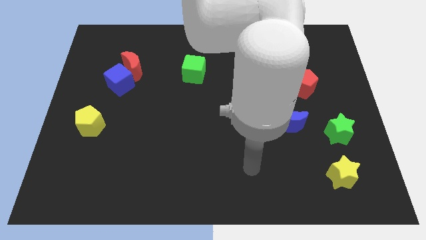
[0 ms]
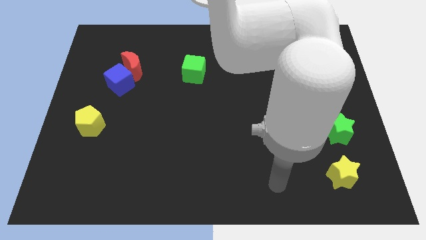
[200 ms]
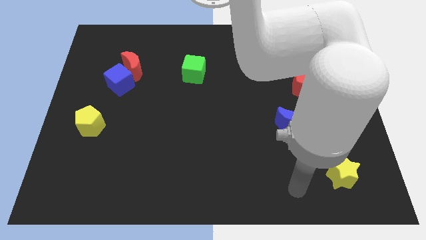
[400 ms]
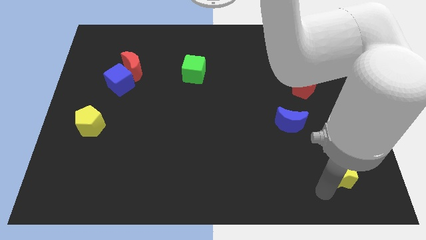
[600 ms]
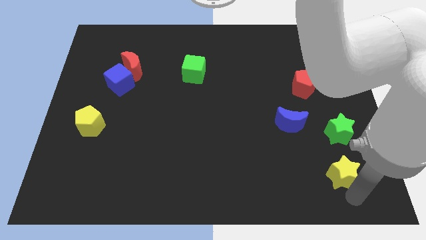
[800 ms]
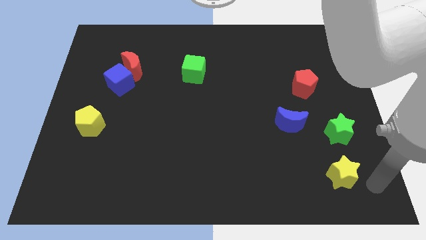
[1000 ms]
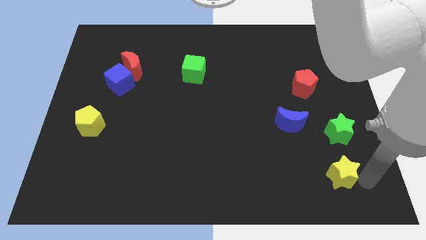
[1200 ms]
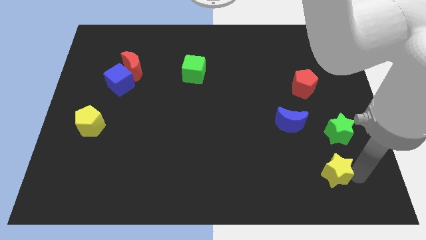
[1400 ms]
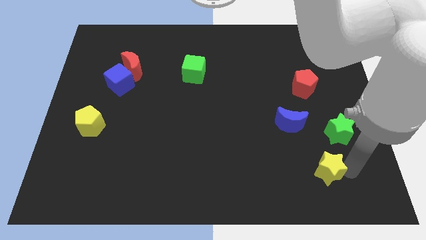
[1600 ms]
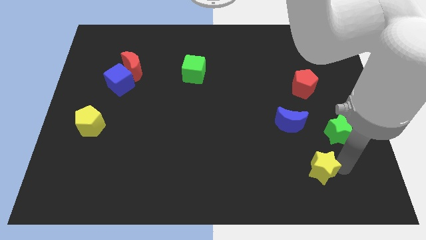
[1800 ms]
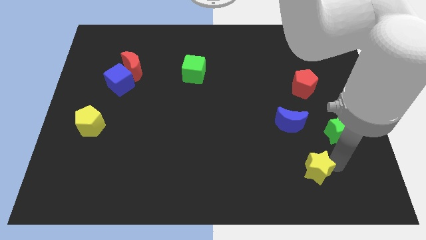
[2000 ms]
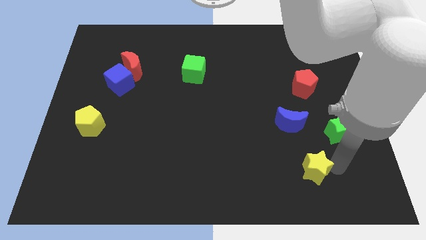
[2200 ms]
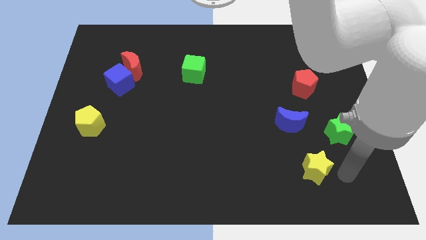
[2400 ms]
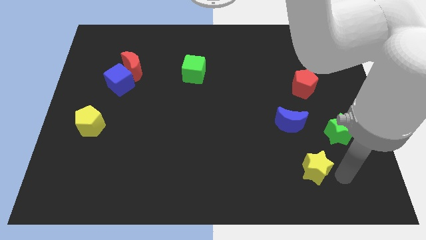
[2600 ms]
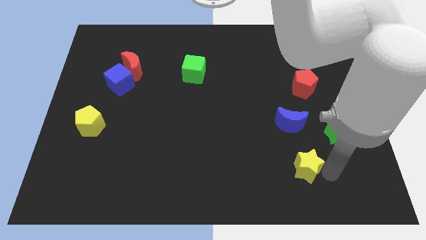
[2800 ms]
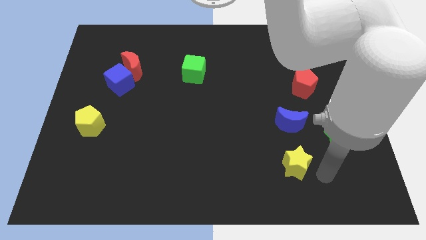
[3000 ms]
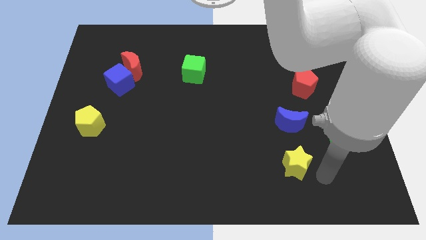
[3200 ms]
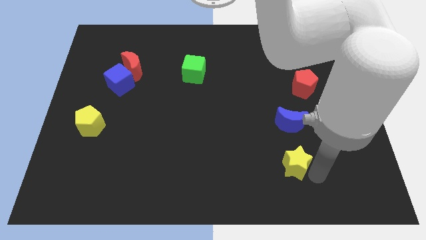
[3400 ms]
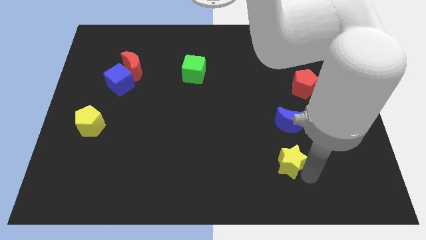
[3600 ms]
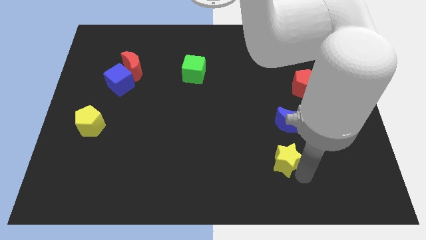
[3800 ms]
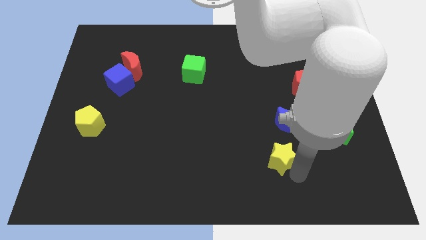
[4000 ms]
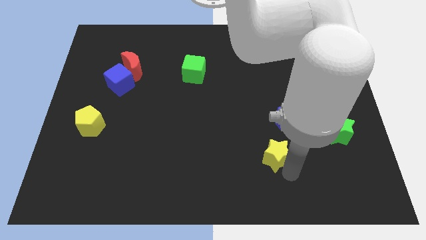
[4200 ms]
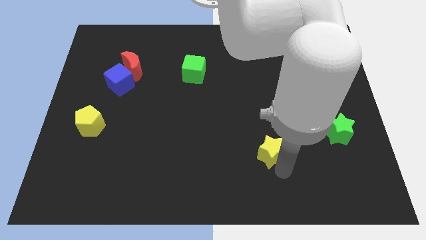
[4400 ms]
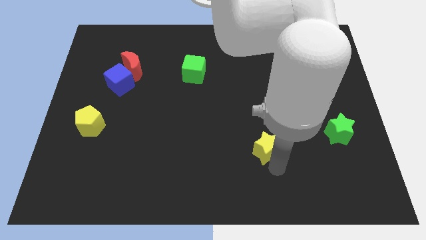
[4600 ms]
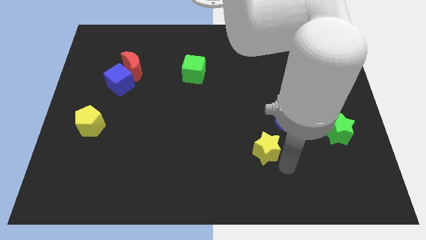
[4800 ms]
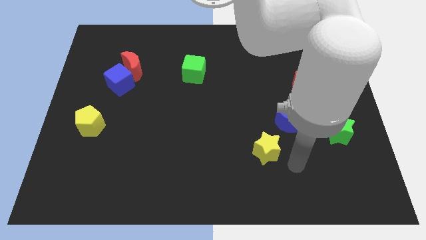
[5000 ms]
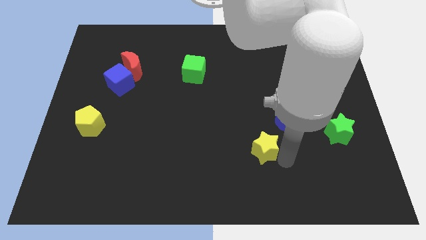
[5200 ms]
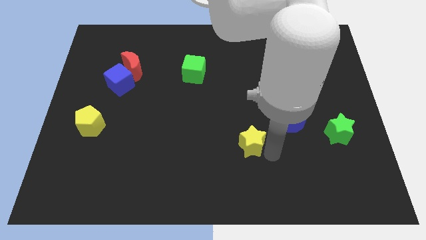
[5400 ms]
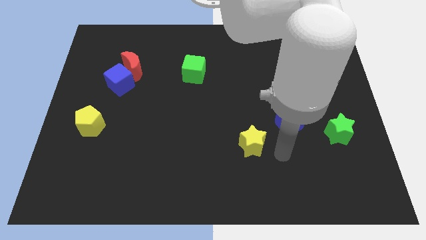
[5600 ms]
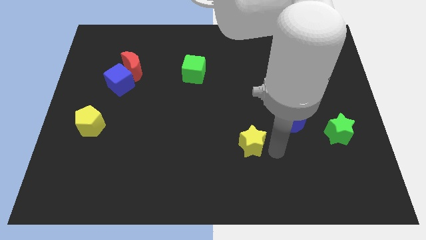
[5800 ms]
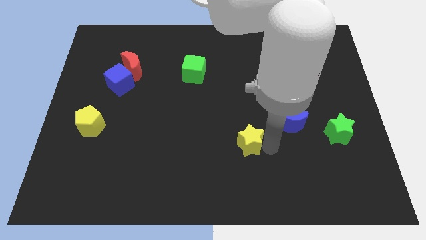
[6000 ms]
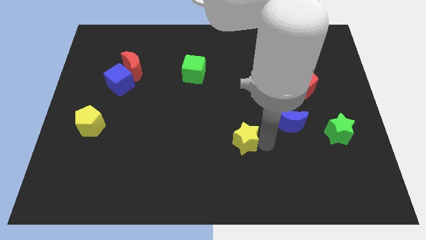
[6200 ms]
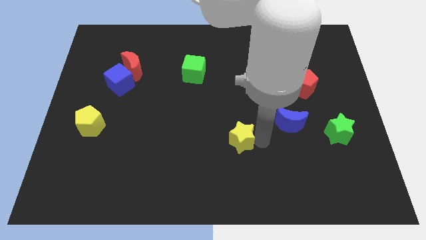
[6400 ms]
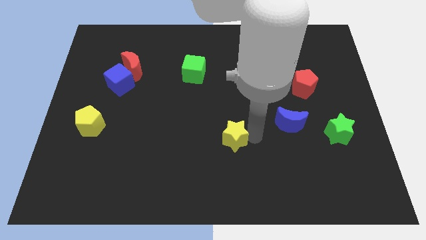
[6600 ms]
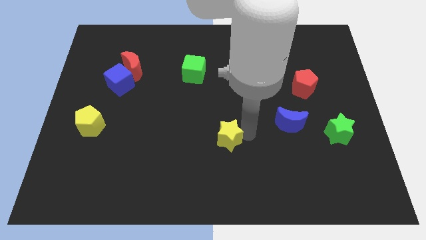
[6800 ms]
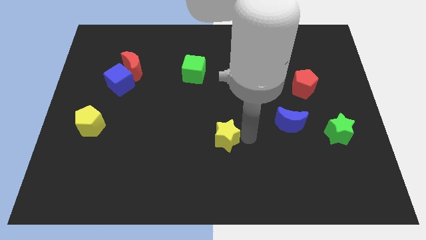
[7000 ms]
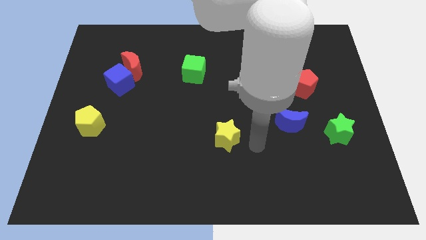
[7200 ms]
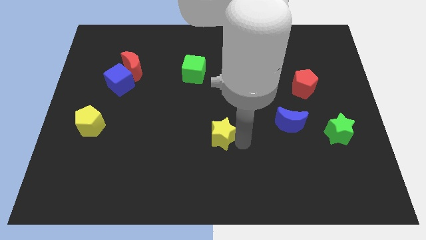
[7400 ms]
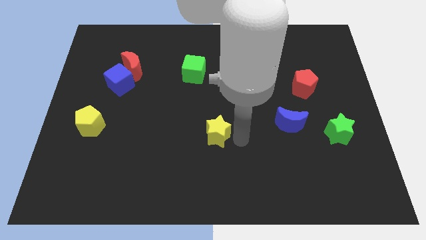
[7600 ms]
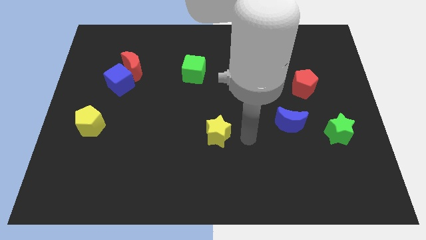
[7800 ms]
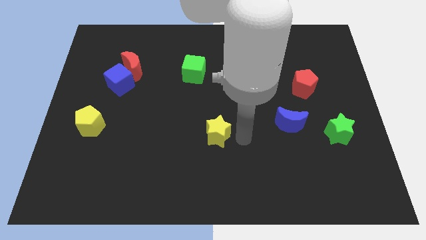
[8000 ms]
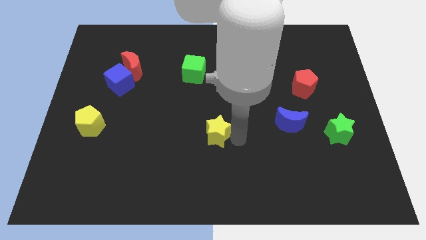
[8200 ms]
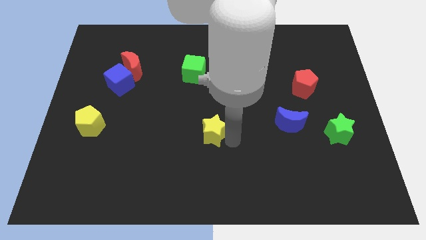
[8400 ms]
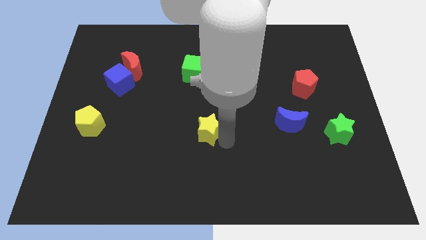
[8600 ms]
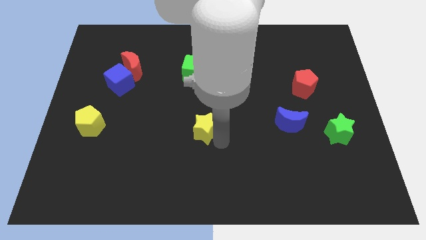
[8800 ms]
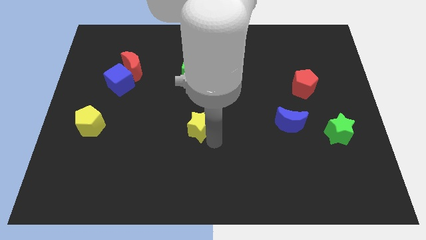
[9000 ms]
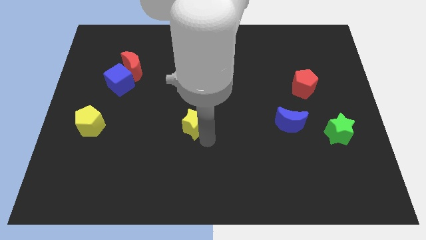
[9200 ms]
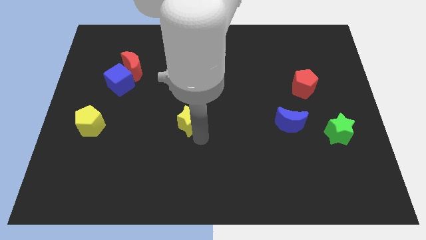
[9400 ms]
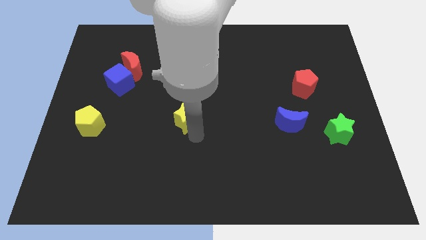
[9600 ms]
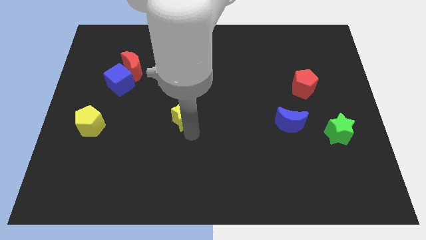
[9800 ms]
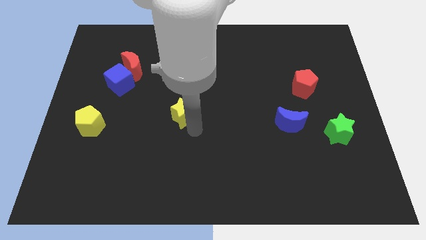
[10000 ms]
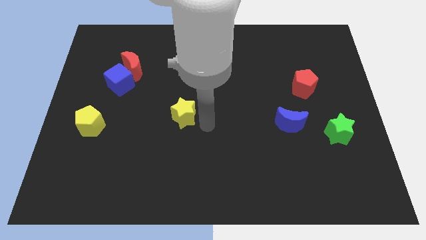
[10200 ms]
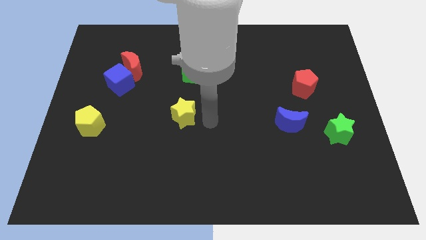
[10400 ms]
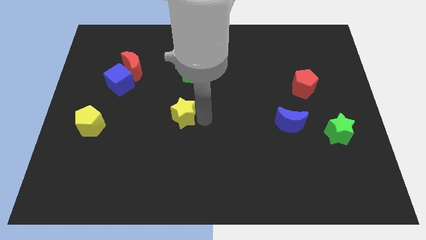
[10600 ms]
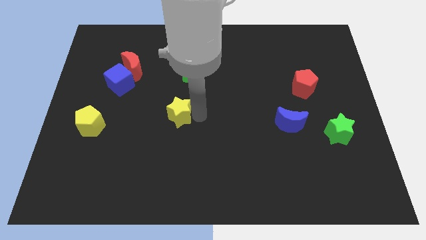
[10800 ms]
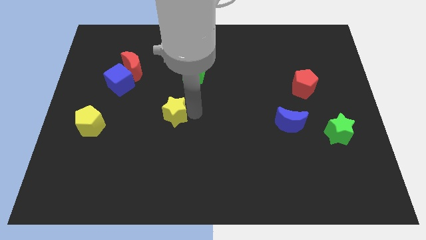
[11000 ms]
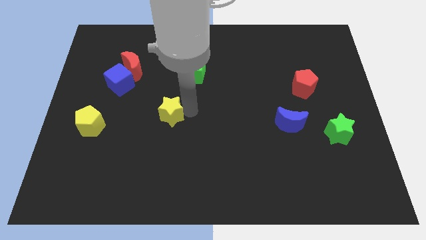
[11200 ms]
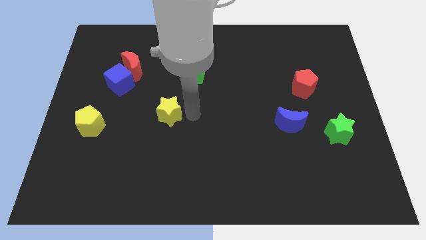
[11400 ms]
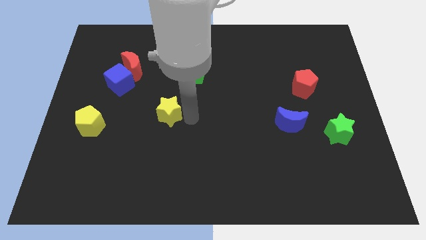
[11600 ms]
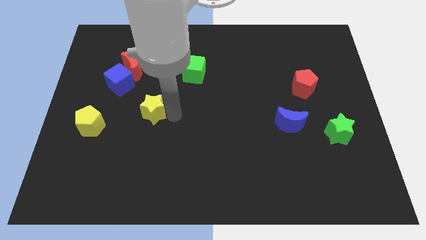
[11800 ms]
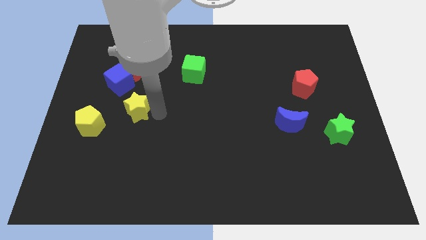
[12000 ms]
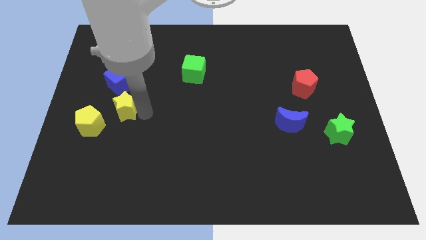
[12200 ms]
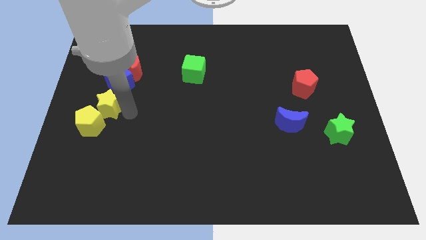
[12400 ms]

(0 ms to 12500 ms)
put the yellow star to the top of the yellow pentagon
